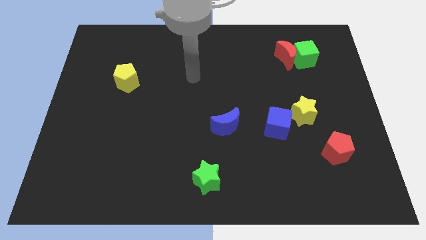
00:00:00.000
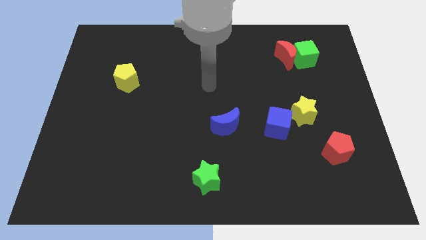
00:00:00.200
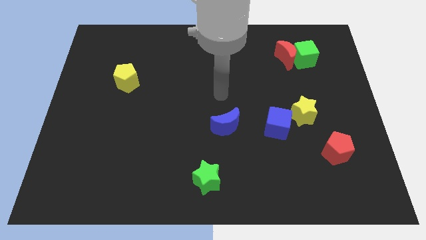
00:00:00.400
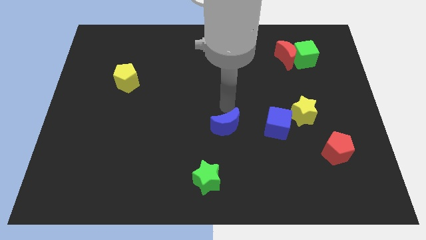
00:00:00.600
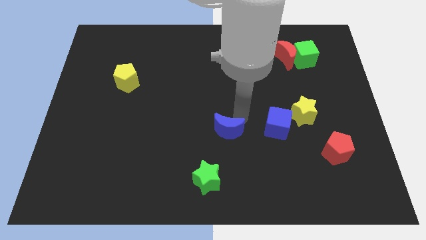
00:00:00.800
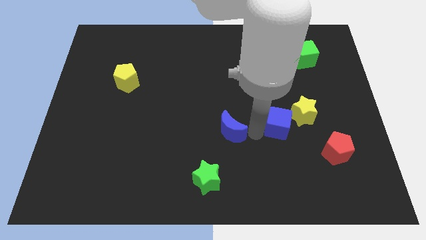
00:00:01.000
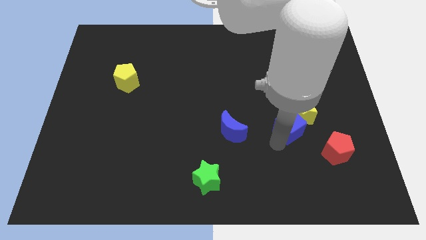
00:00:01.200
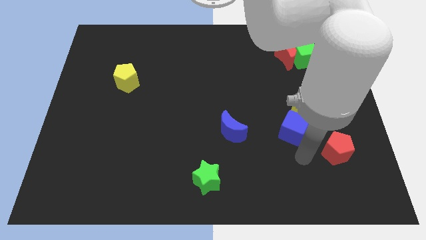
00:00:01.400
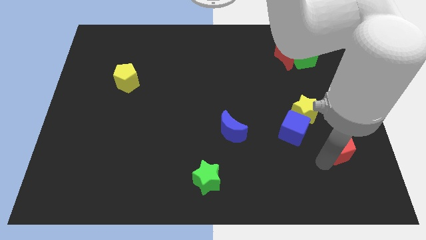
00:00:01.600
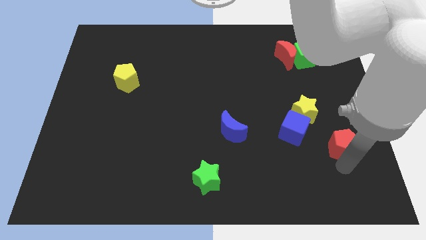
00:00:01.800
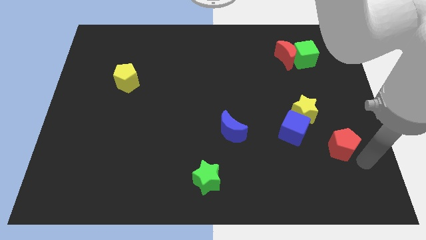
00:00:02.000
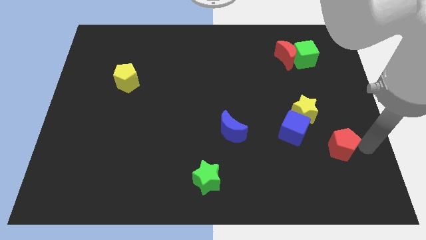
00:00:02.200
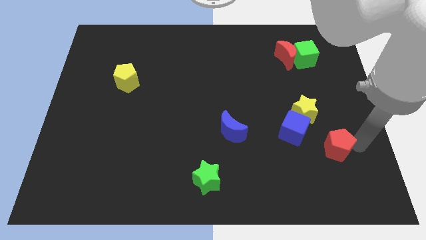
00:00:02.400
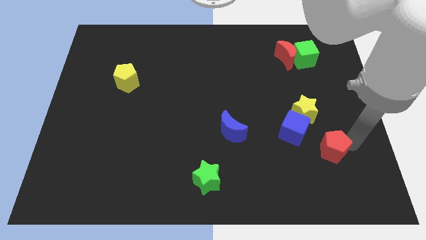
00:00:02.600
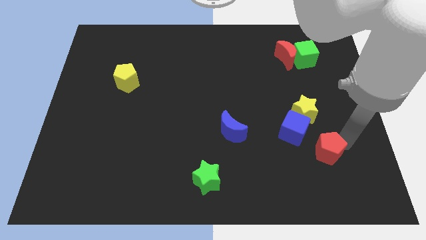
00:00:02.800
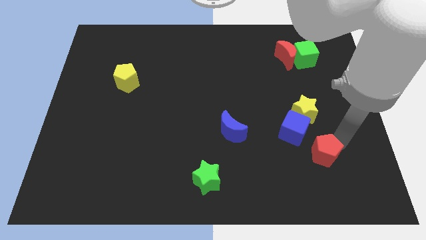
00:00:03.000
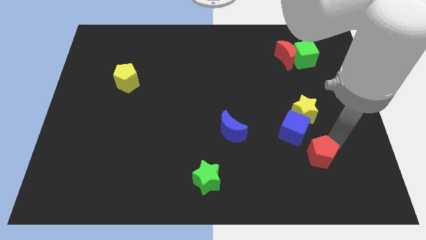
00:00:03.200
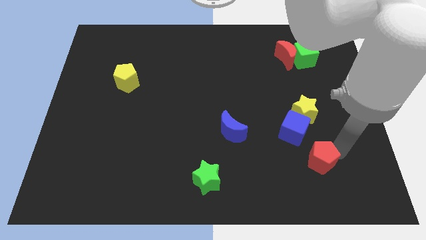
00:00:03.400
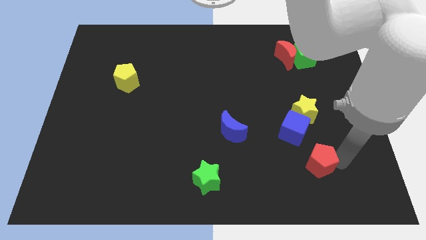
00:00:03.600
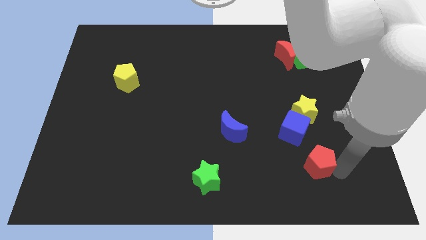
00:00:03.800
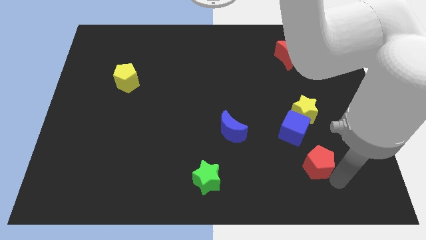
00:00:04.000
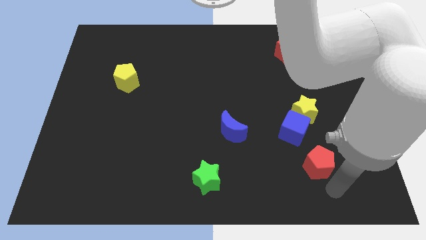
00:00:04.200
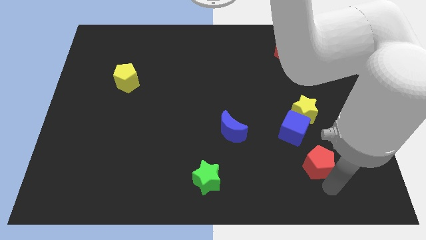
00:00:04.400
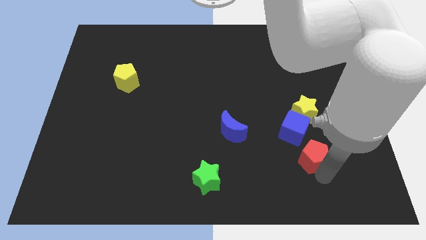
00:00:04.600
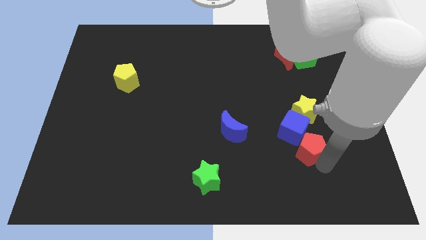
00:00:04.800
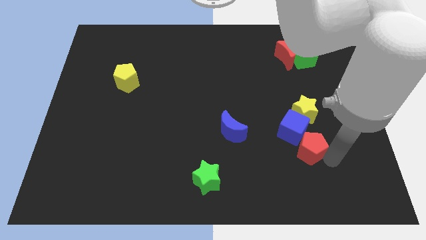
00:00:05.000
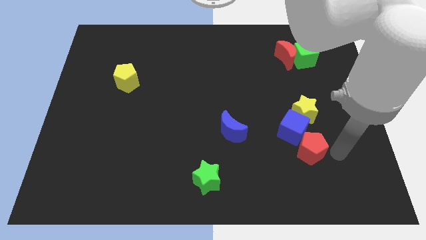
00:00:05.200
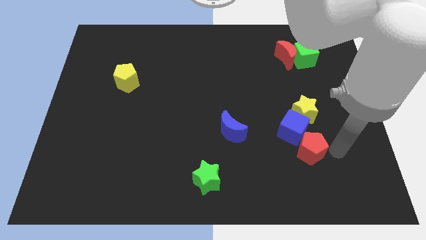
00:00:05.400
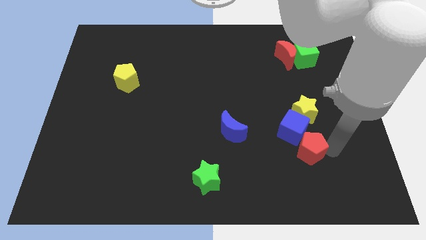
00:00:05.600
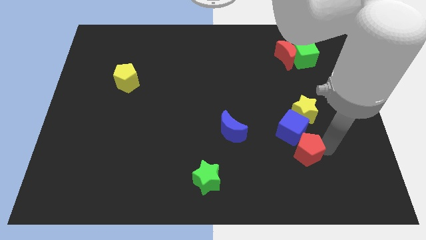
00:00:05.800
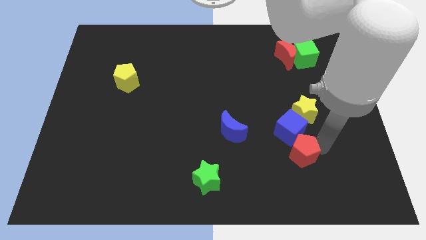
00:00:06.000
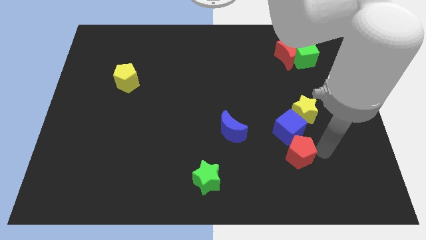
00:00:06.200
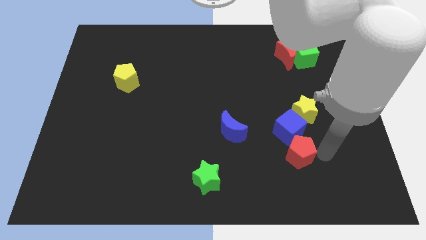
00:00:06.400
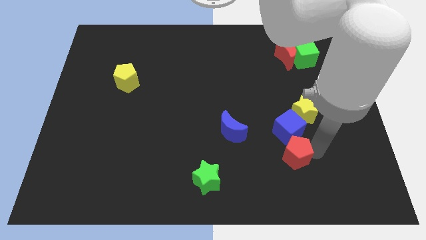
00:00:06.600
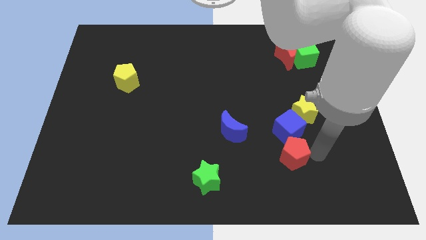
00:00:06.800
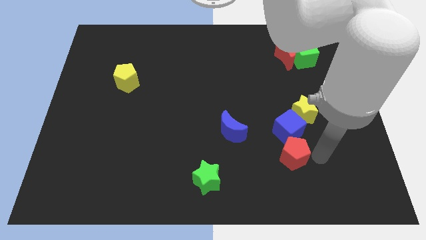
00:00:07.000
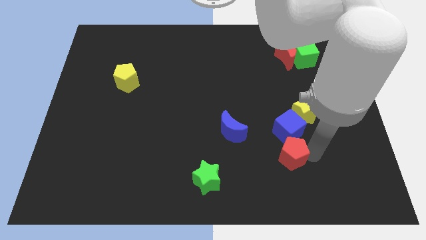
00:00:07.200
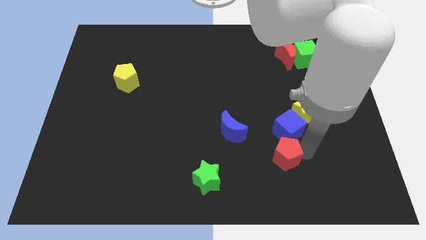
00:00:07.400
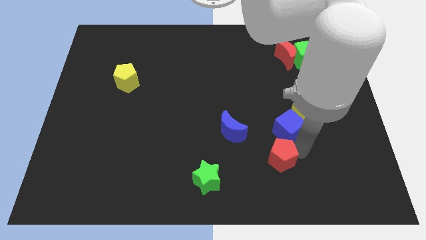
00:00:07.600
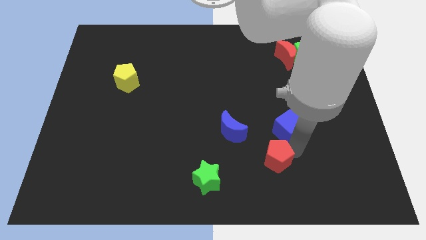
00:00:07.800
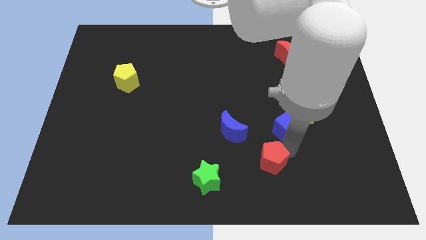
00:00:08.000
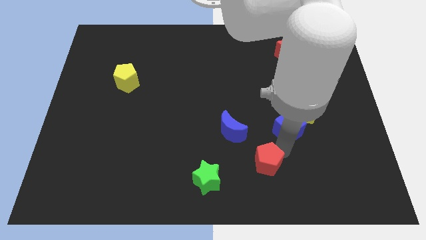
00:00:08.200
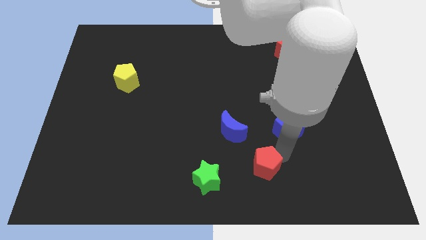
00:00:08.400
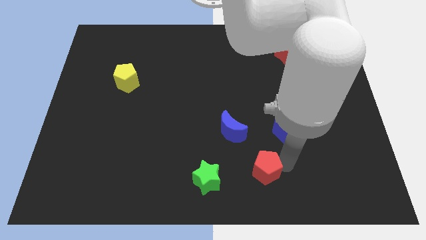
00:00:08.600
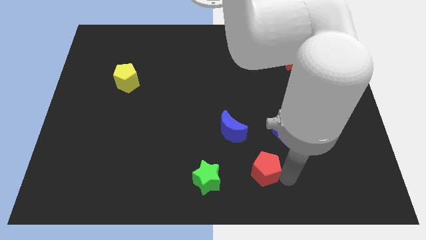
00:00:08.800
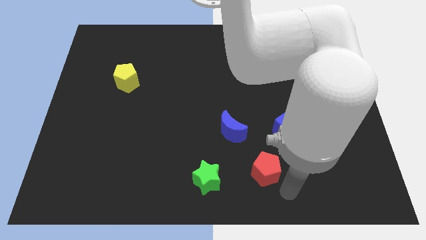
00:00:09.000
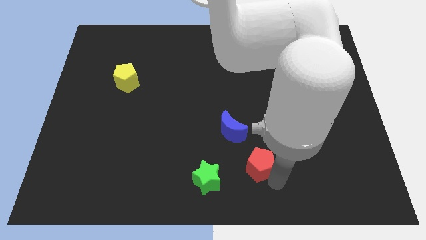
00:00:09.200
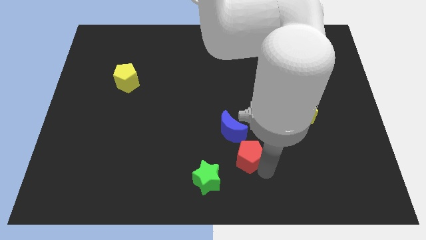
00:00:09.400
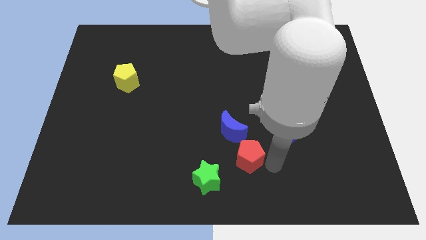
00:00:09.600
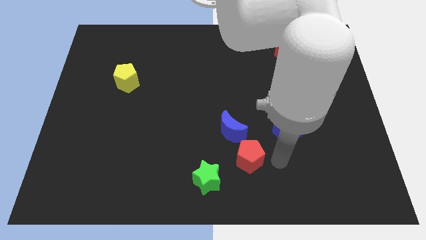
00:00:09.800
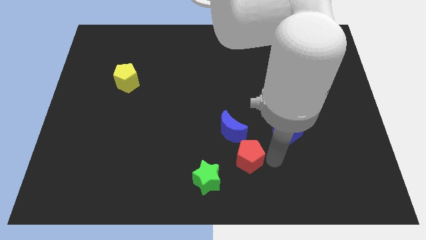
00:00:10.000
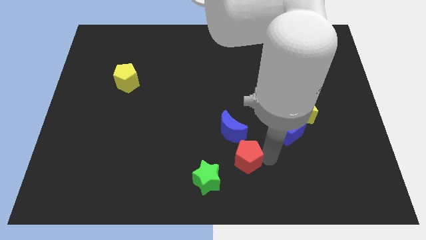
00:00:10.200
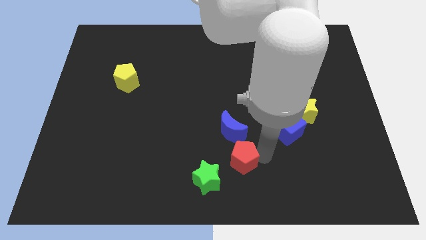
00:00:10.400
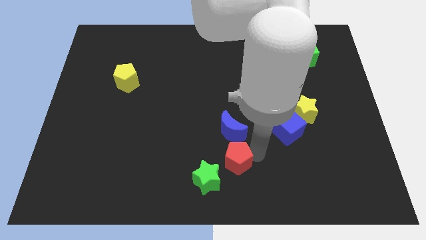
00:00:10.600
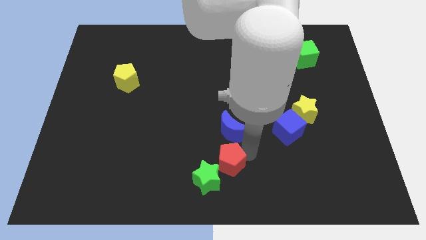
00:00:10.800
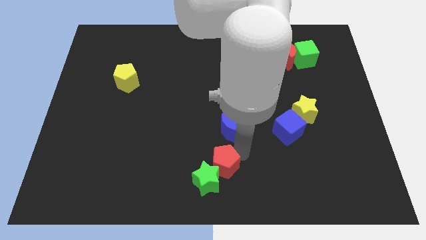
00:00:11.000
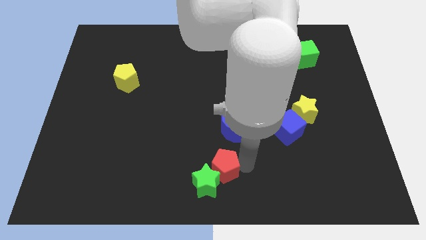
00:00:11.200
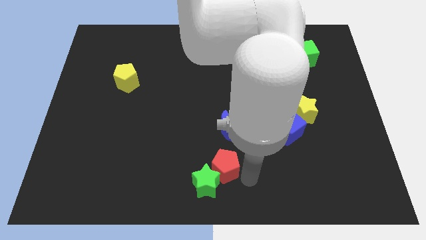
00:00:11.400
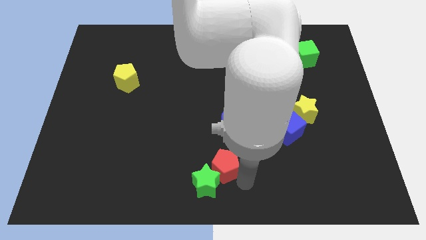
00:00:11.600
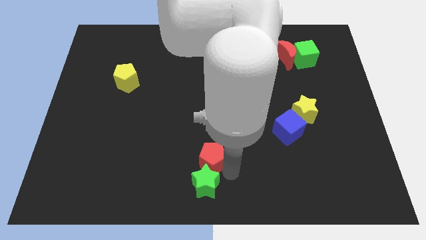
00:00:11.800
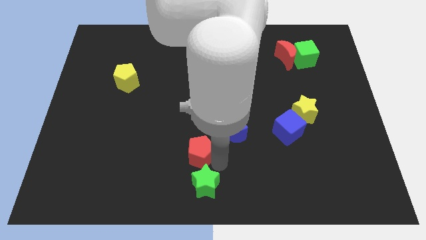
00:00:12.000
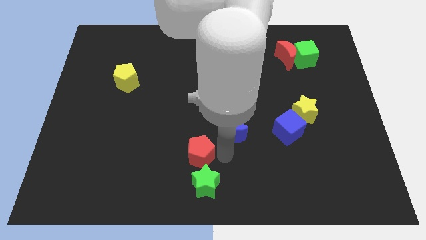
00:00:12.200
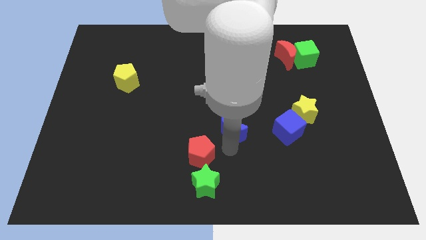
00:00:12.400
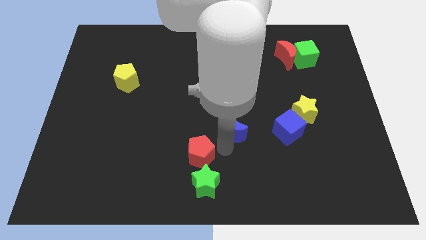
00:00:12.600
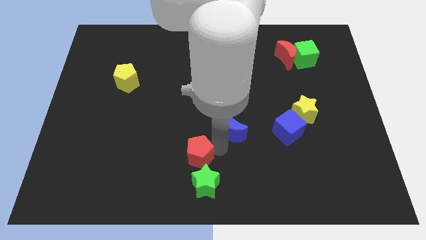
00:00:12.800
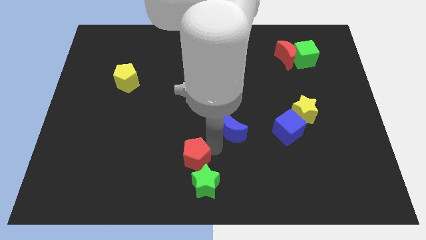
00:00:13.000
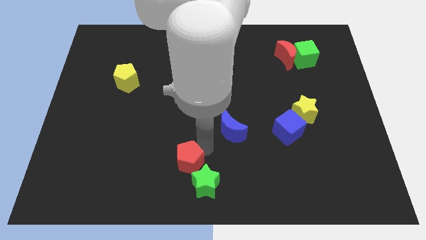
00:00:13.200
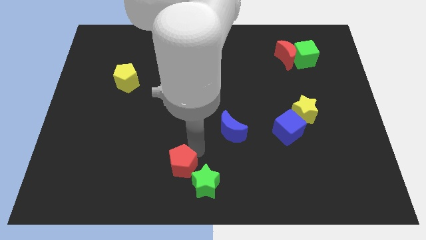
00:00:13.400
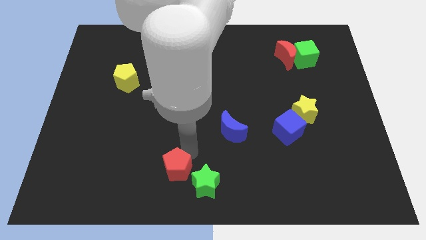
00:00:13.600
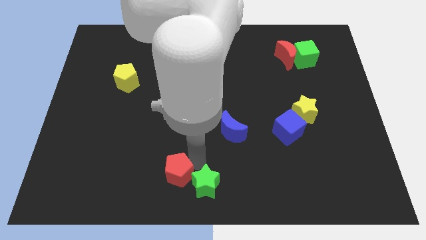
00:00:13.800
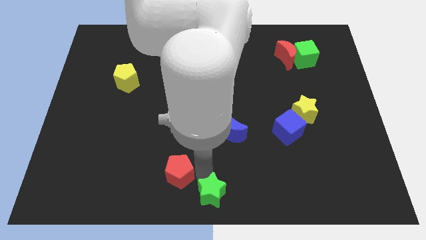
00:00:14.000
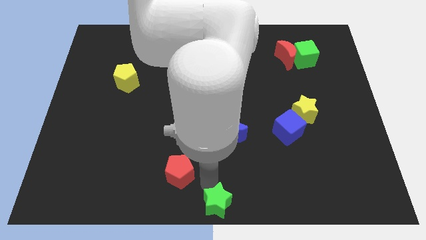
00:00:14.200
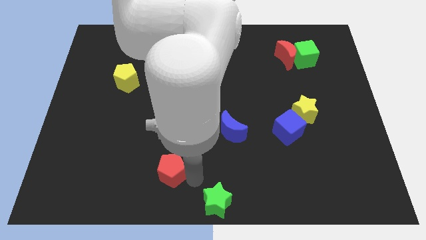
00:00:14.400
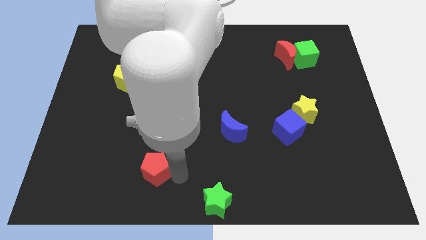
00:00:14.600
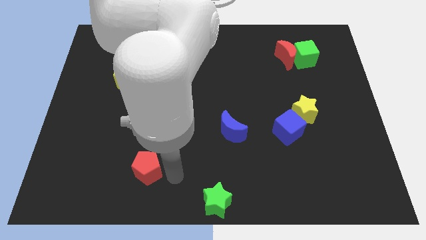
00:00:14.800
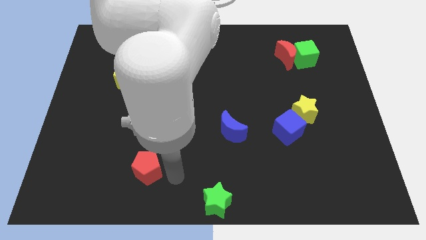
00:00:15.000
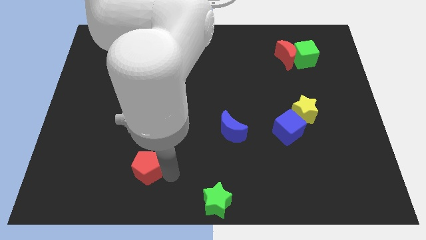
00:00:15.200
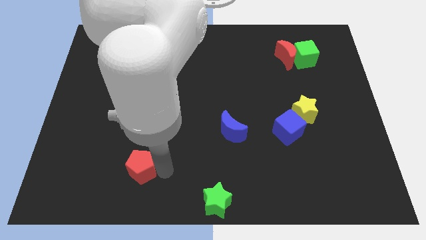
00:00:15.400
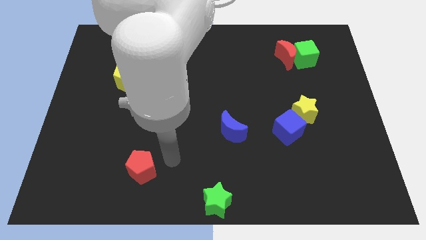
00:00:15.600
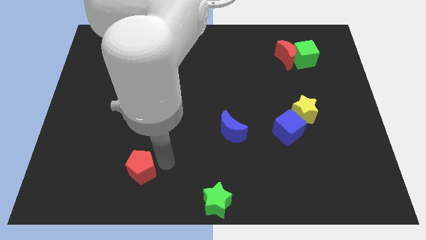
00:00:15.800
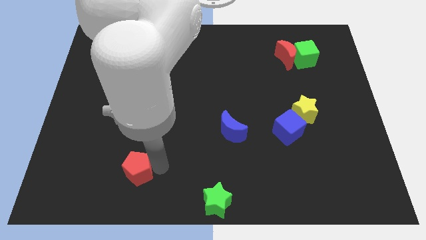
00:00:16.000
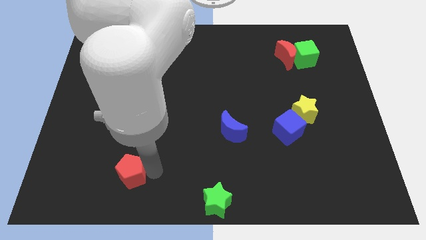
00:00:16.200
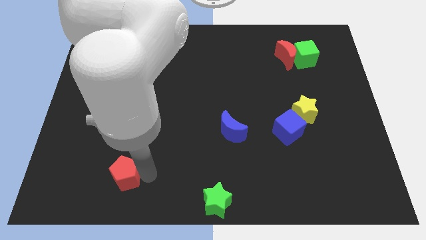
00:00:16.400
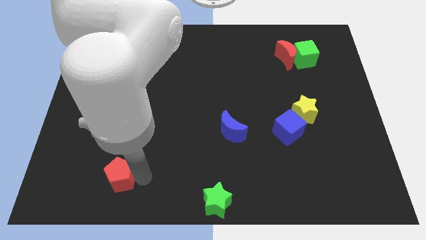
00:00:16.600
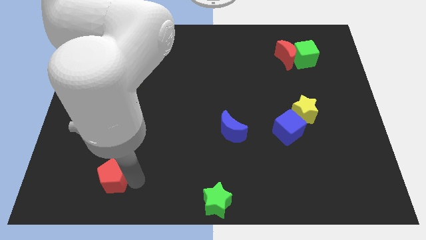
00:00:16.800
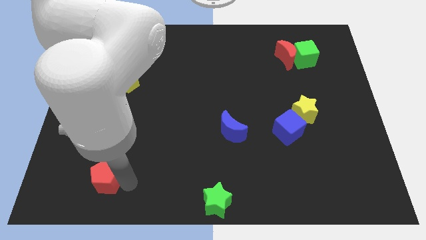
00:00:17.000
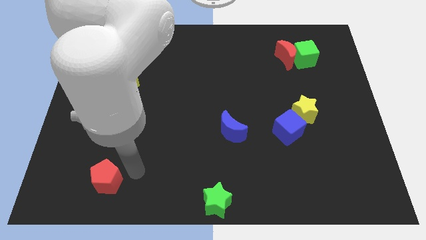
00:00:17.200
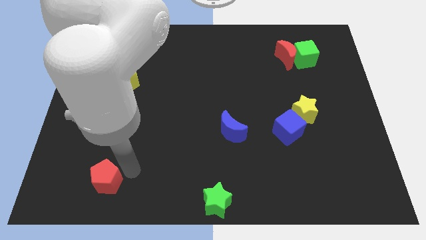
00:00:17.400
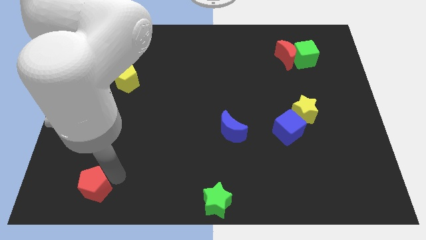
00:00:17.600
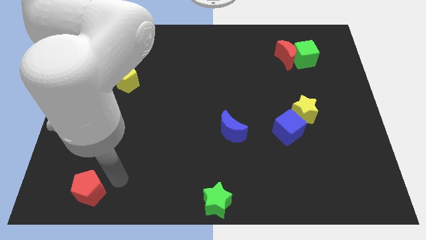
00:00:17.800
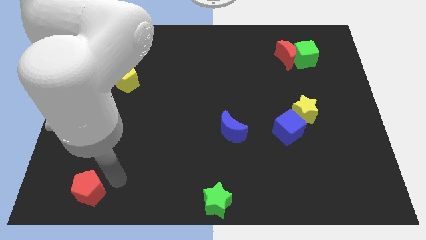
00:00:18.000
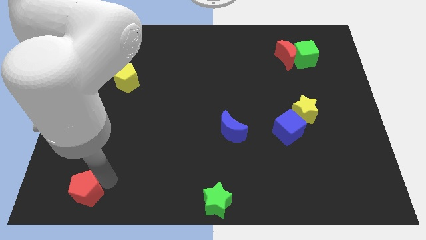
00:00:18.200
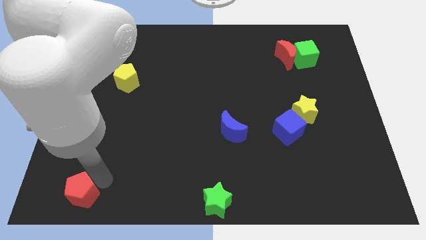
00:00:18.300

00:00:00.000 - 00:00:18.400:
slide the red pentagon to the bottom left of the board
